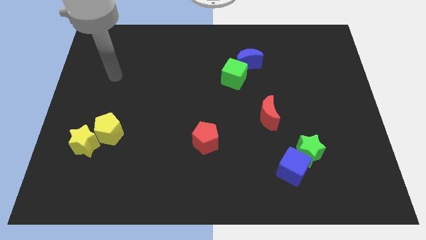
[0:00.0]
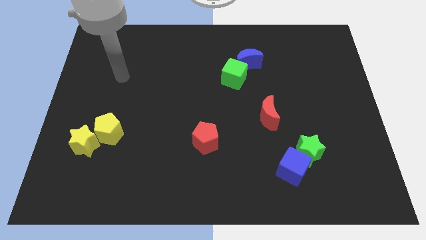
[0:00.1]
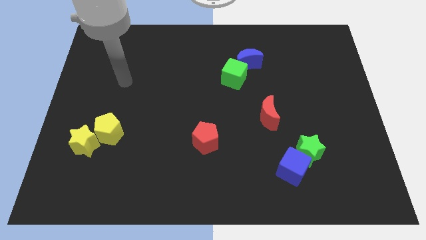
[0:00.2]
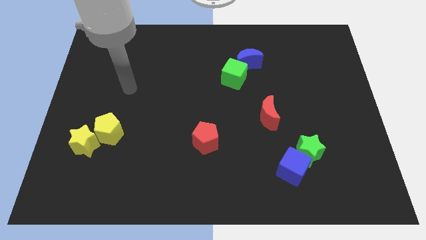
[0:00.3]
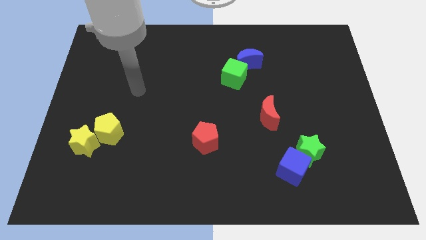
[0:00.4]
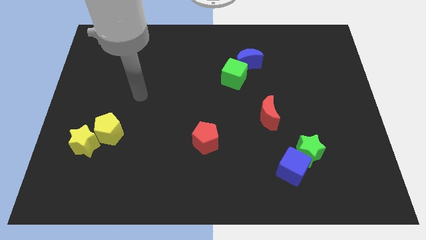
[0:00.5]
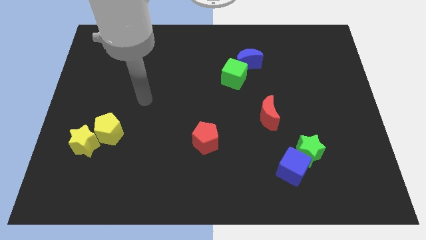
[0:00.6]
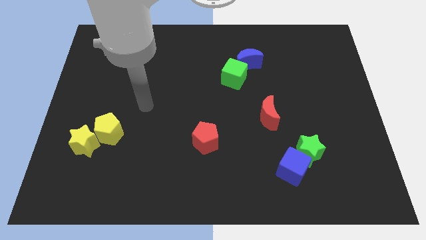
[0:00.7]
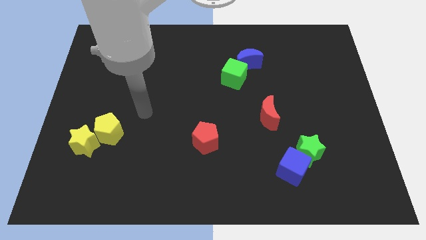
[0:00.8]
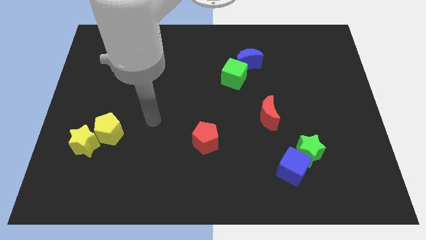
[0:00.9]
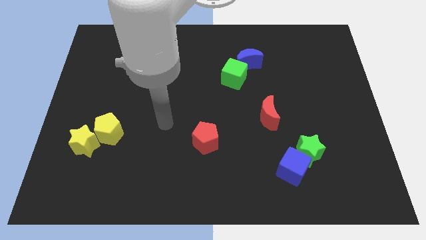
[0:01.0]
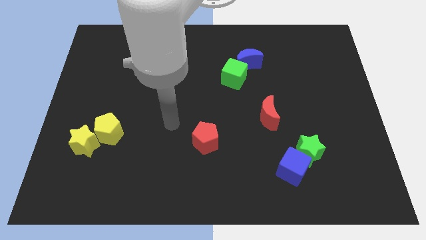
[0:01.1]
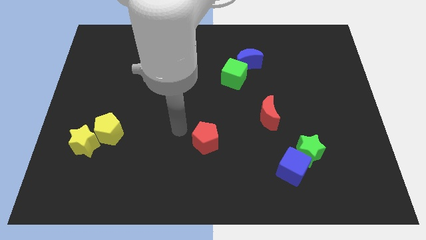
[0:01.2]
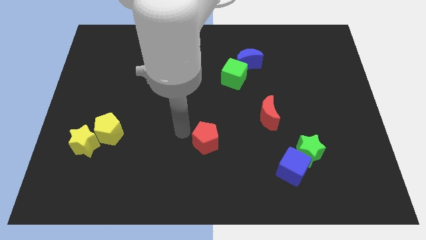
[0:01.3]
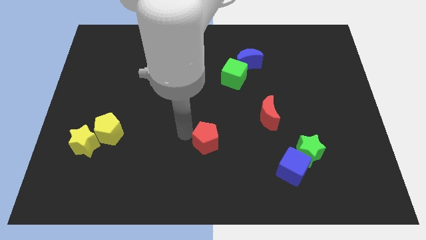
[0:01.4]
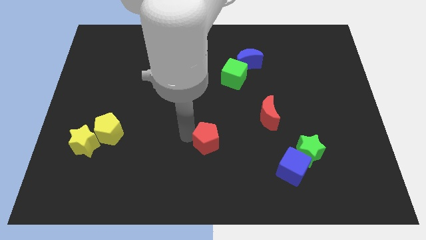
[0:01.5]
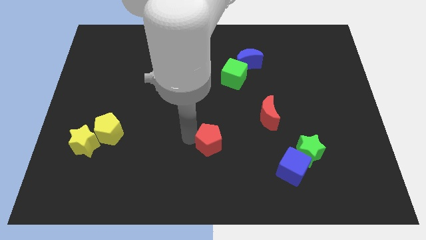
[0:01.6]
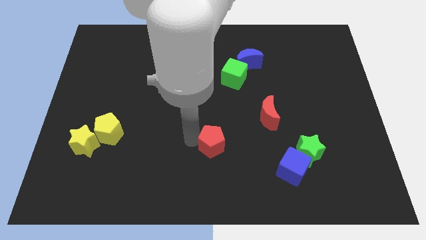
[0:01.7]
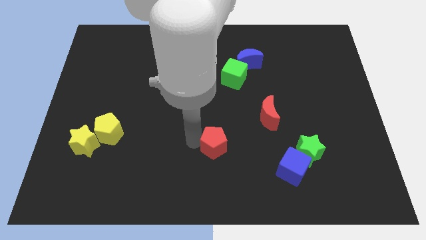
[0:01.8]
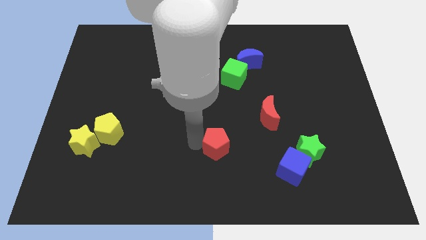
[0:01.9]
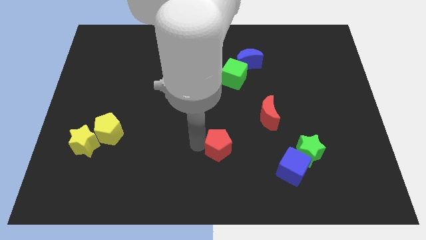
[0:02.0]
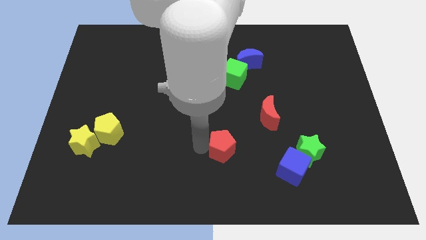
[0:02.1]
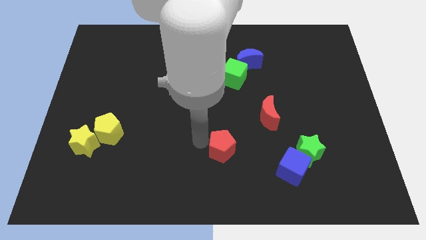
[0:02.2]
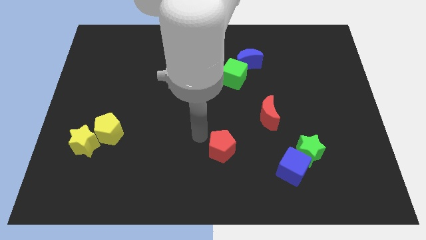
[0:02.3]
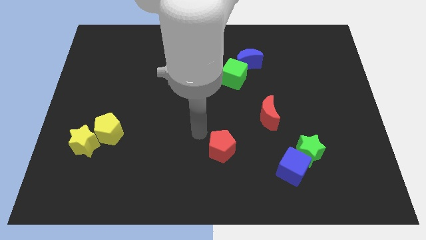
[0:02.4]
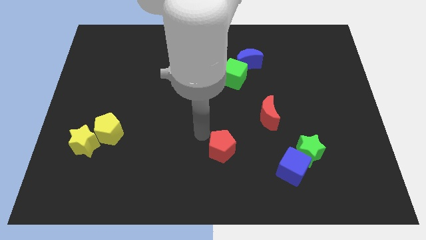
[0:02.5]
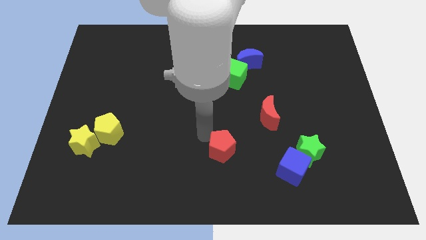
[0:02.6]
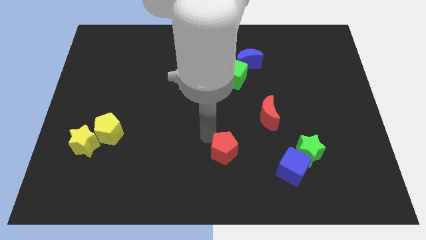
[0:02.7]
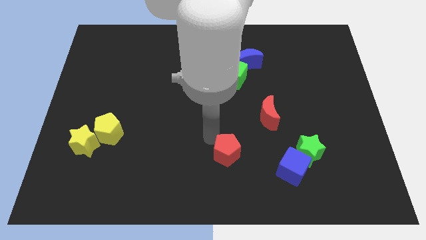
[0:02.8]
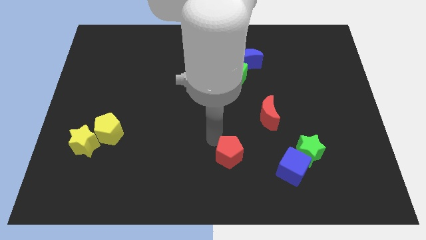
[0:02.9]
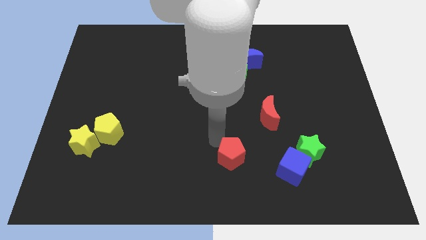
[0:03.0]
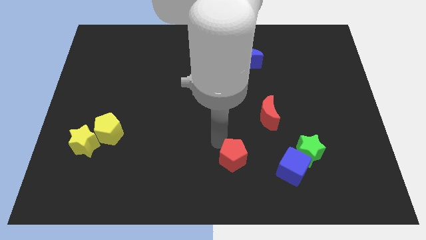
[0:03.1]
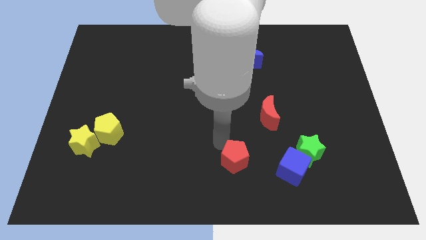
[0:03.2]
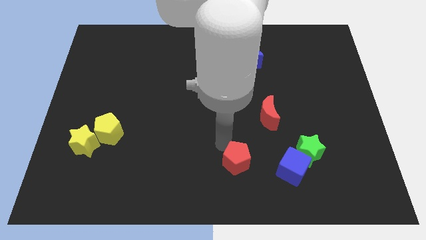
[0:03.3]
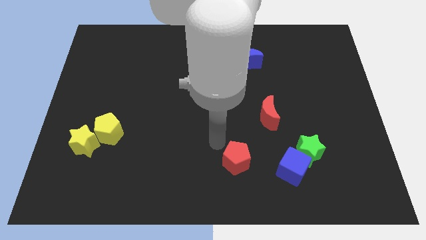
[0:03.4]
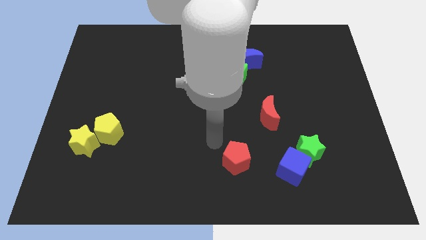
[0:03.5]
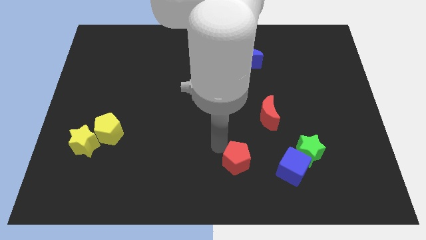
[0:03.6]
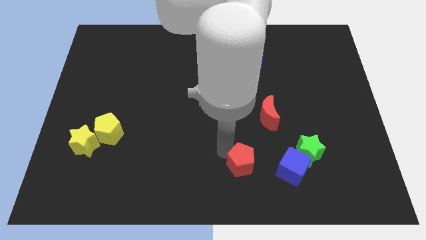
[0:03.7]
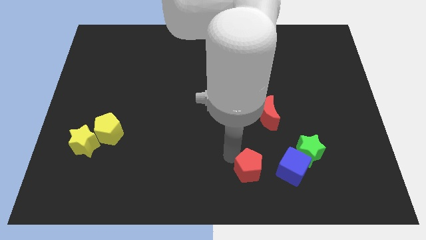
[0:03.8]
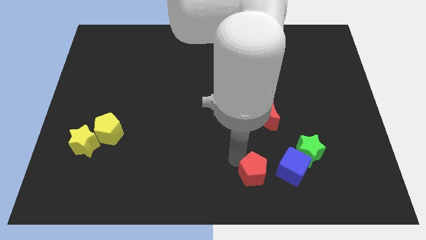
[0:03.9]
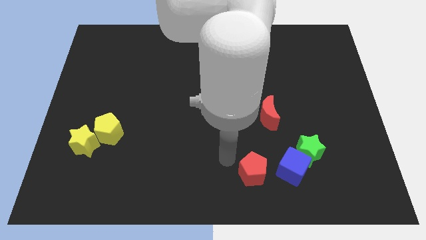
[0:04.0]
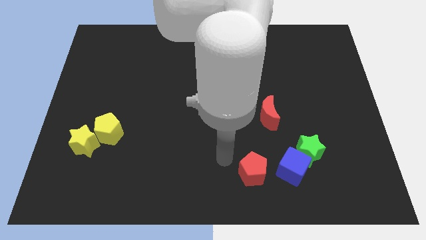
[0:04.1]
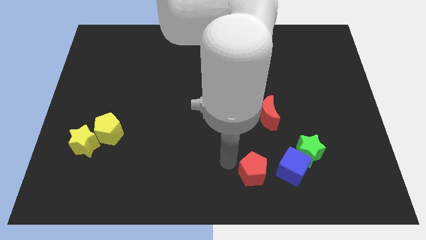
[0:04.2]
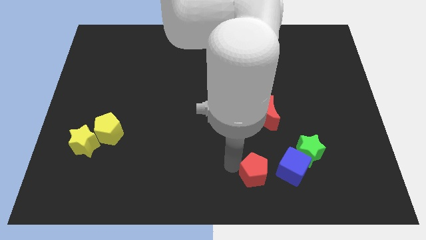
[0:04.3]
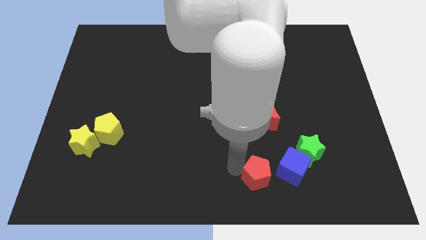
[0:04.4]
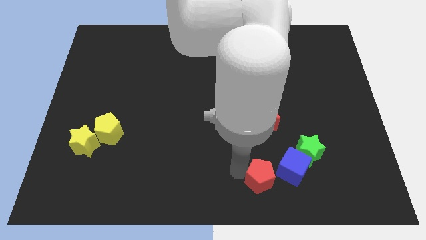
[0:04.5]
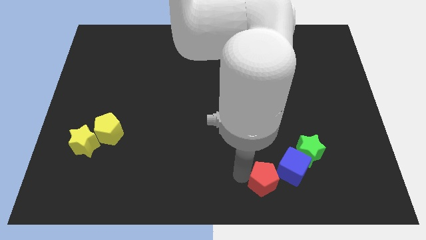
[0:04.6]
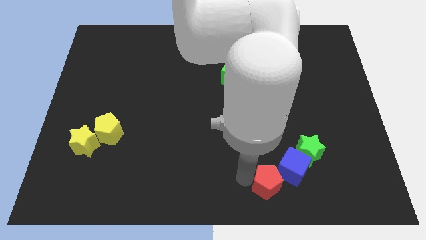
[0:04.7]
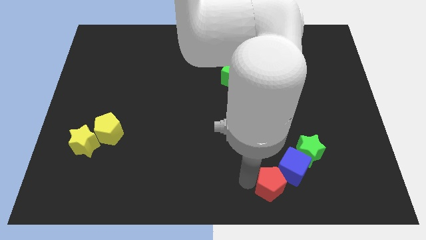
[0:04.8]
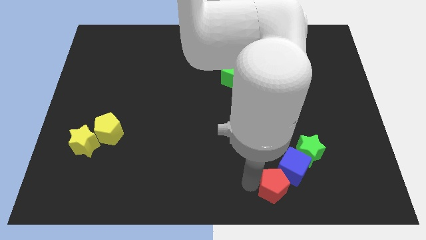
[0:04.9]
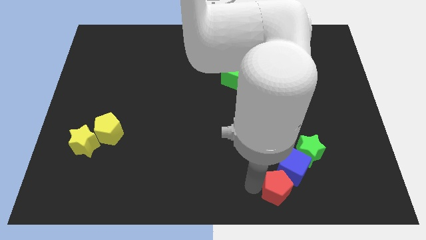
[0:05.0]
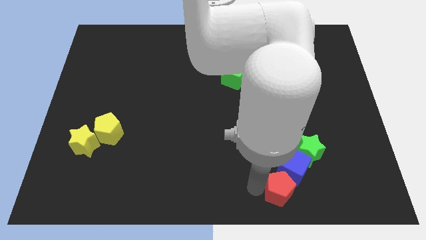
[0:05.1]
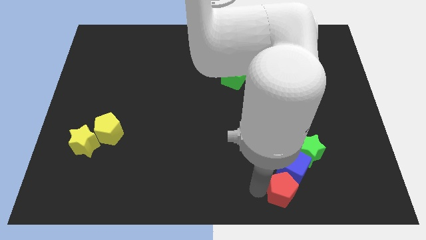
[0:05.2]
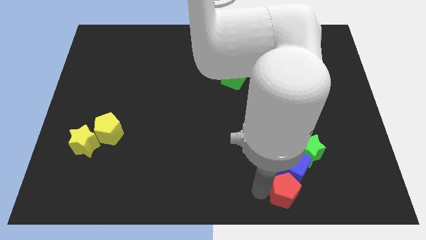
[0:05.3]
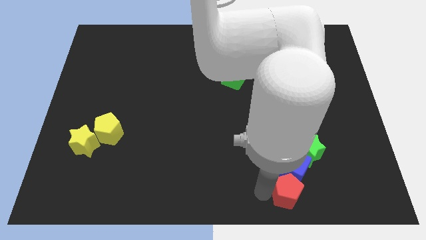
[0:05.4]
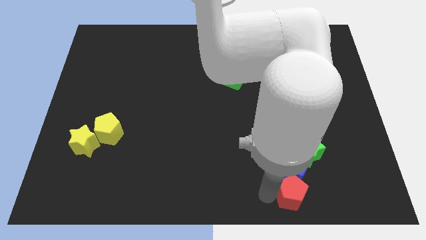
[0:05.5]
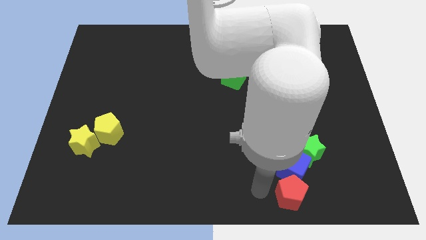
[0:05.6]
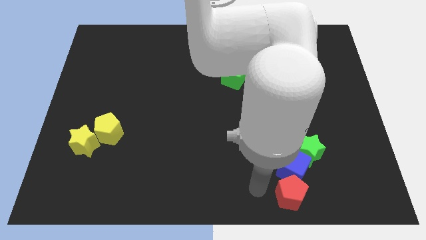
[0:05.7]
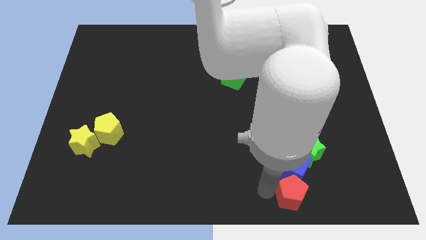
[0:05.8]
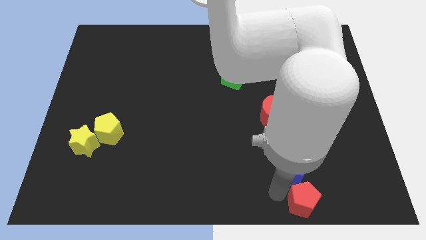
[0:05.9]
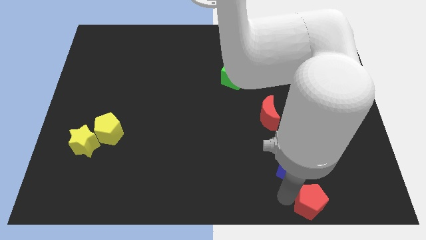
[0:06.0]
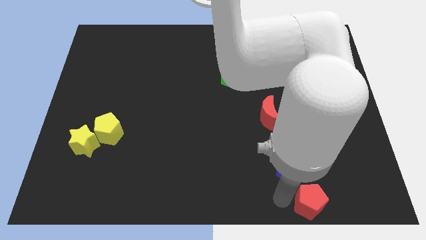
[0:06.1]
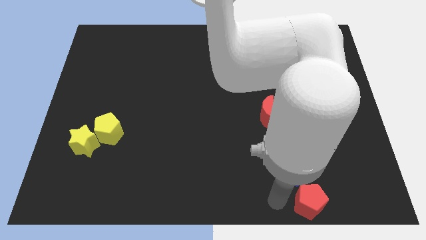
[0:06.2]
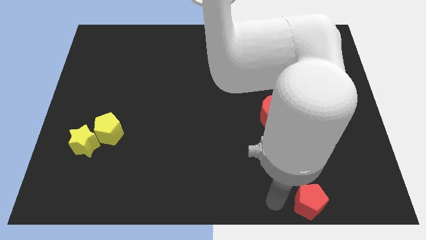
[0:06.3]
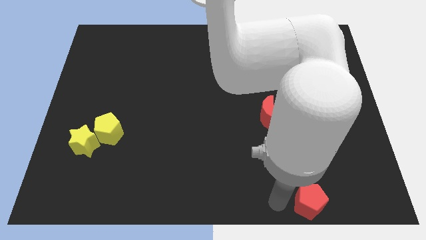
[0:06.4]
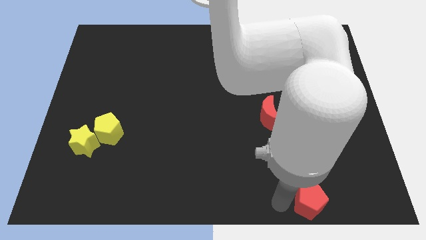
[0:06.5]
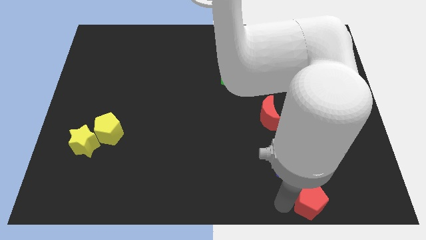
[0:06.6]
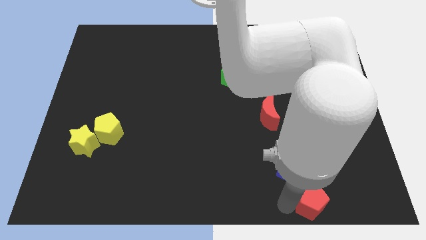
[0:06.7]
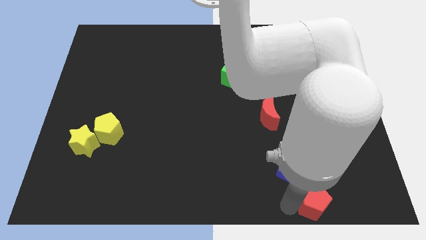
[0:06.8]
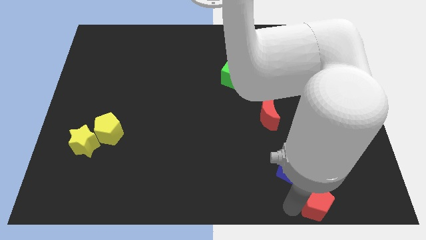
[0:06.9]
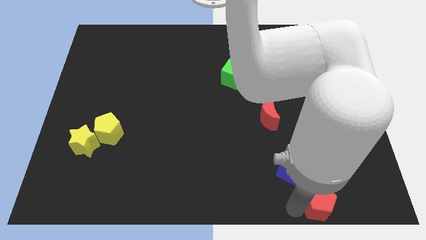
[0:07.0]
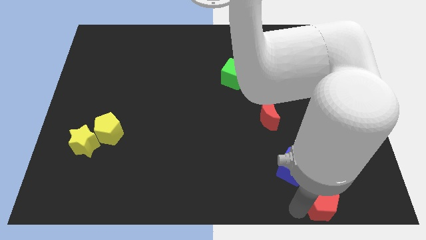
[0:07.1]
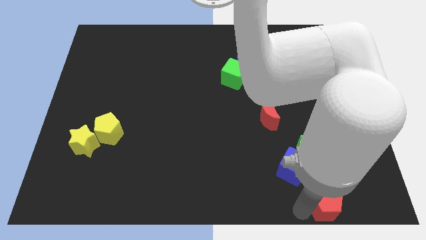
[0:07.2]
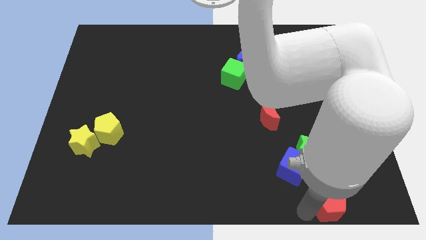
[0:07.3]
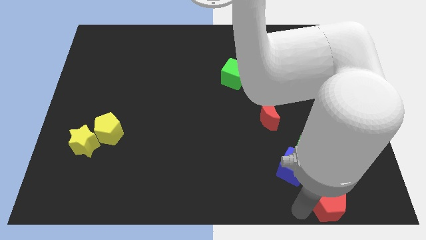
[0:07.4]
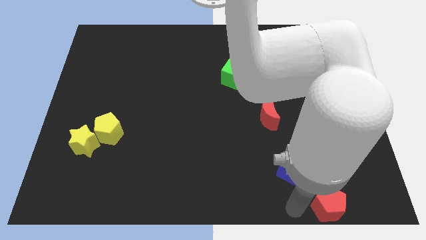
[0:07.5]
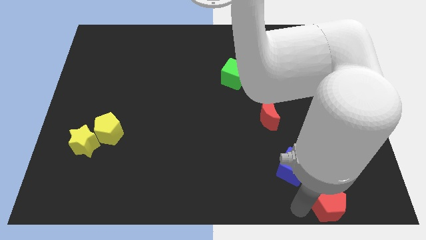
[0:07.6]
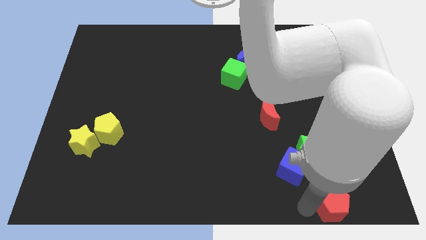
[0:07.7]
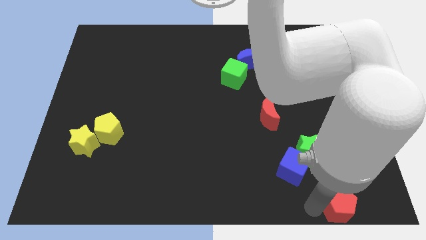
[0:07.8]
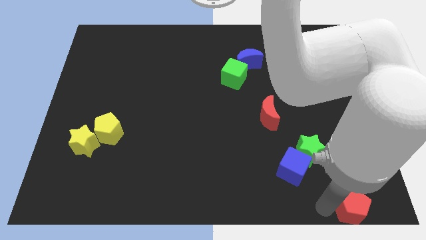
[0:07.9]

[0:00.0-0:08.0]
move the red pentagon to the bottom right
